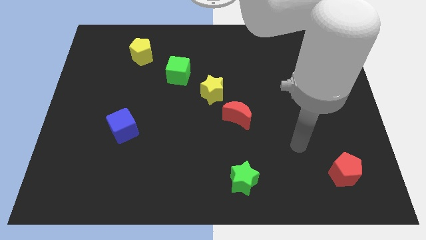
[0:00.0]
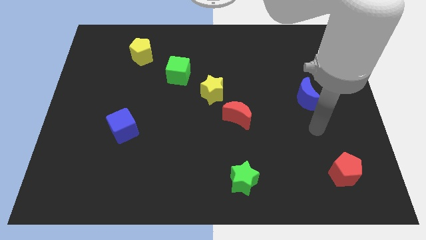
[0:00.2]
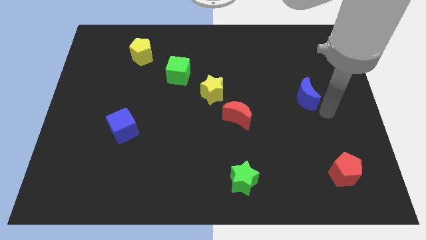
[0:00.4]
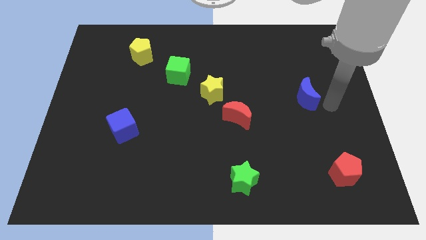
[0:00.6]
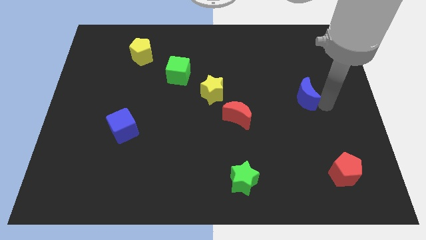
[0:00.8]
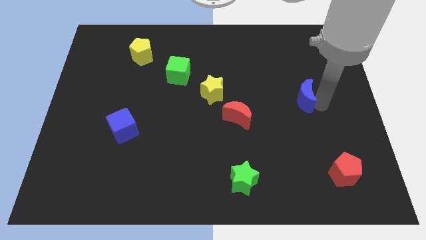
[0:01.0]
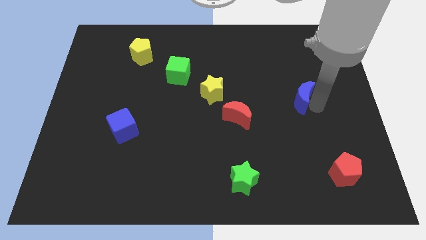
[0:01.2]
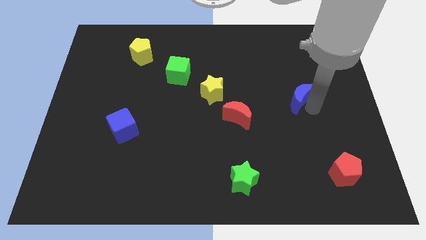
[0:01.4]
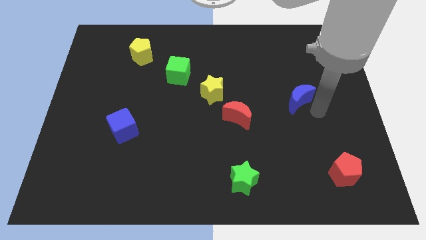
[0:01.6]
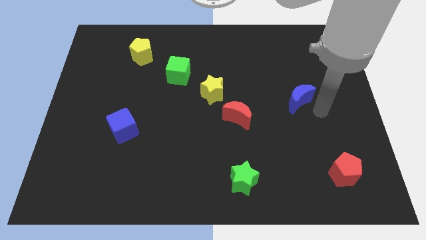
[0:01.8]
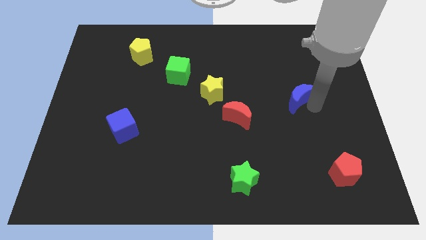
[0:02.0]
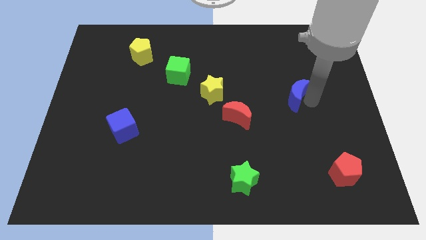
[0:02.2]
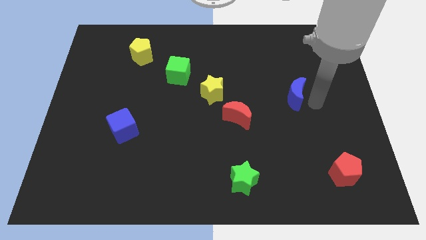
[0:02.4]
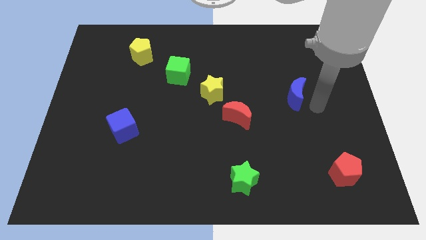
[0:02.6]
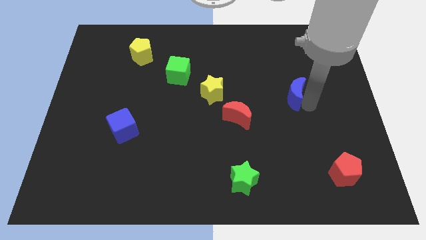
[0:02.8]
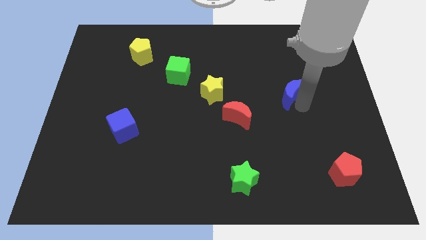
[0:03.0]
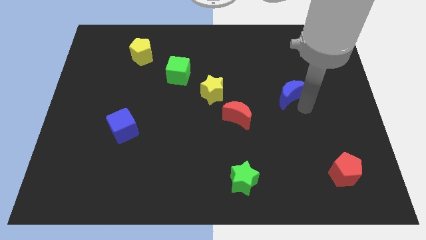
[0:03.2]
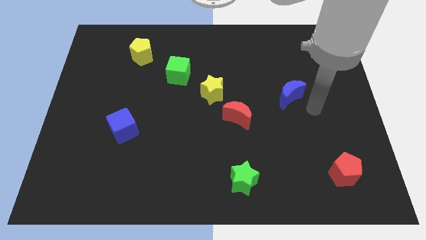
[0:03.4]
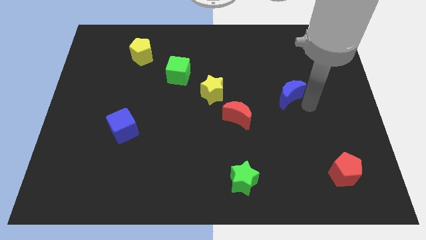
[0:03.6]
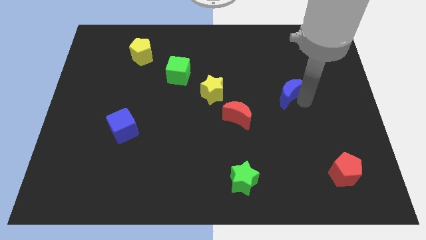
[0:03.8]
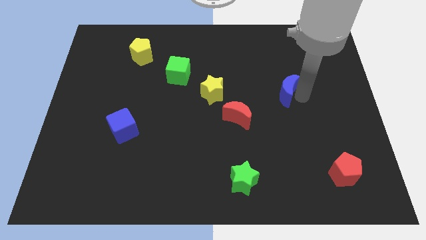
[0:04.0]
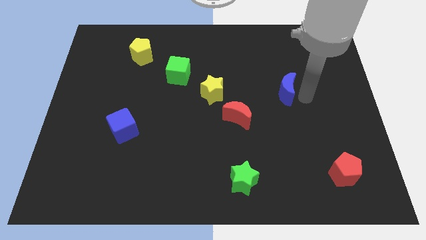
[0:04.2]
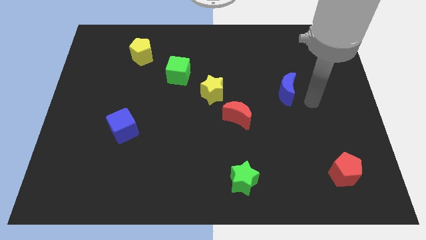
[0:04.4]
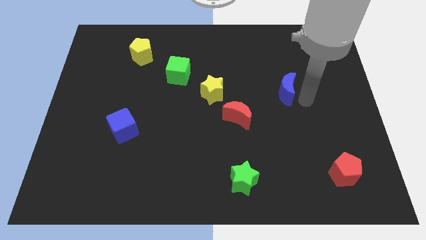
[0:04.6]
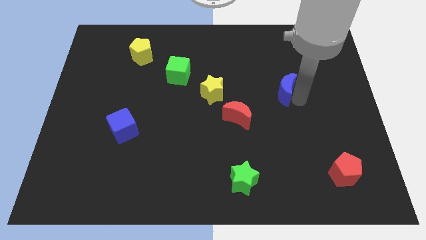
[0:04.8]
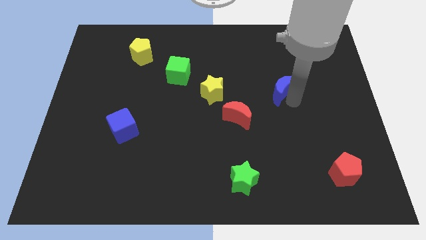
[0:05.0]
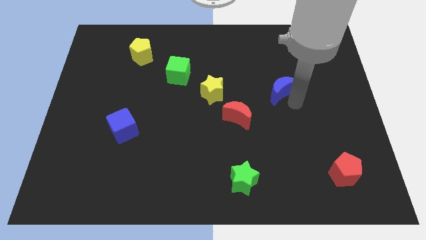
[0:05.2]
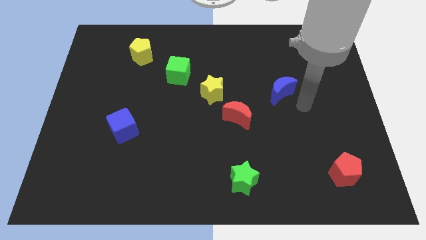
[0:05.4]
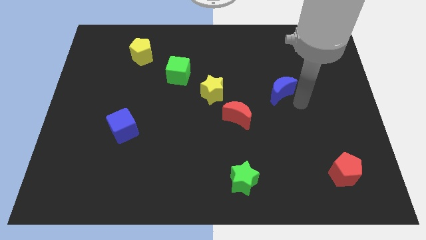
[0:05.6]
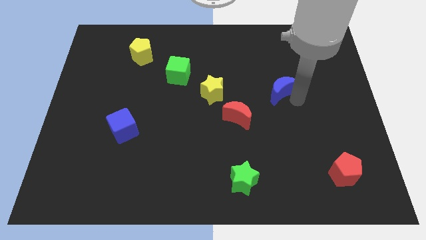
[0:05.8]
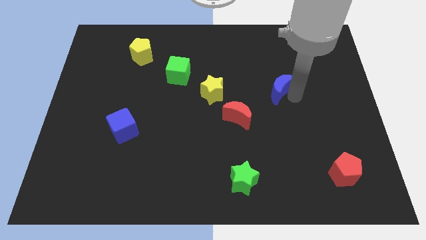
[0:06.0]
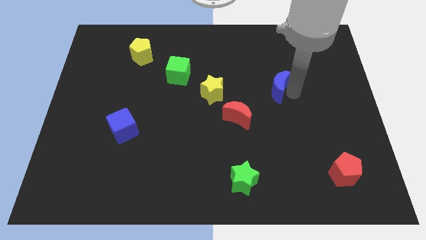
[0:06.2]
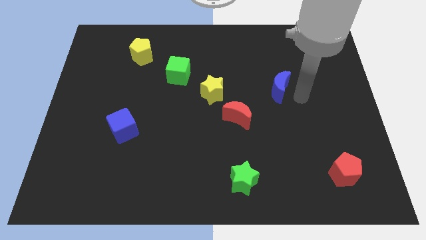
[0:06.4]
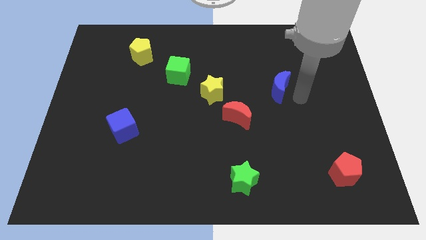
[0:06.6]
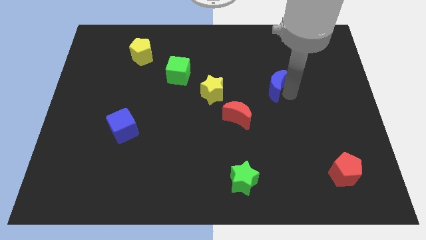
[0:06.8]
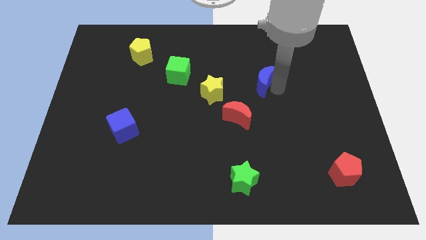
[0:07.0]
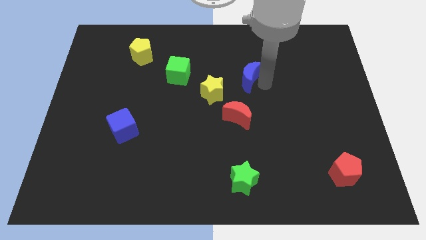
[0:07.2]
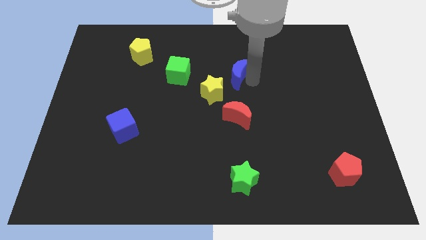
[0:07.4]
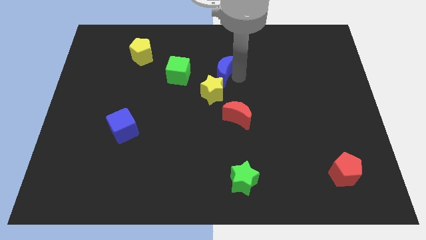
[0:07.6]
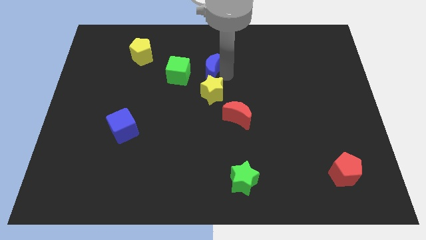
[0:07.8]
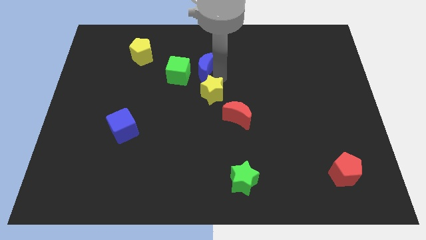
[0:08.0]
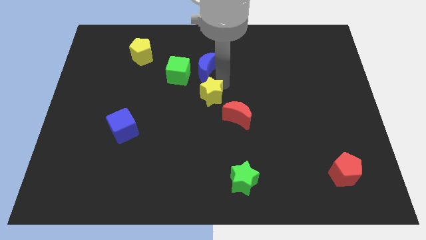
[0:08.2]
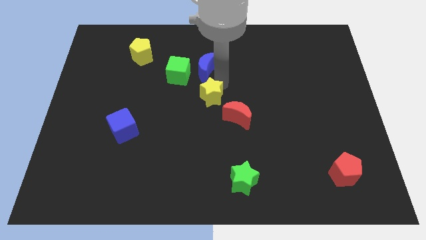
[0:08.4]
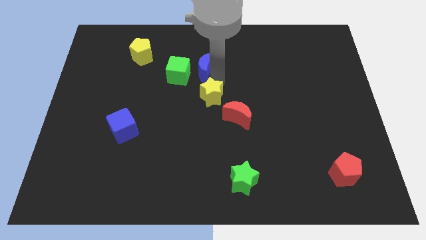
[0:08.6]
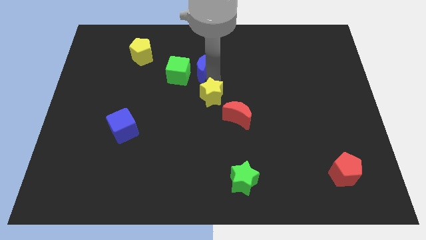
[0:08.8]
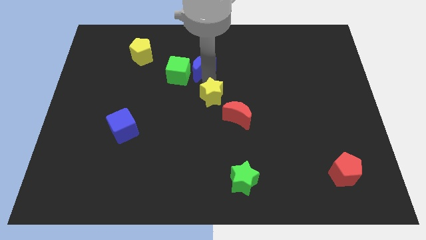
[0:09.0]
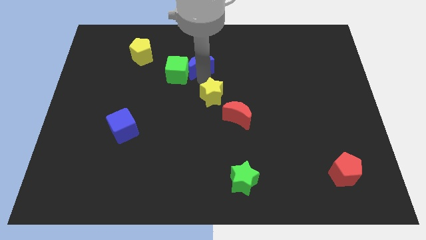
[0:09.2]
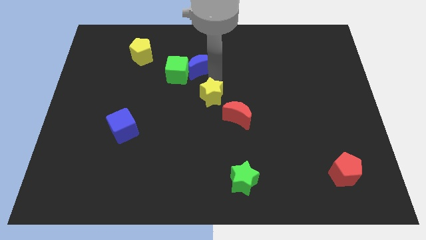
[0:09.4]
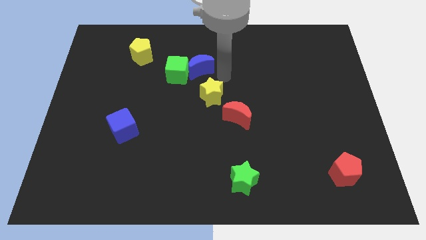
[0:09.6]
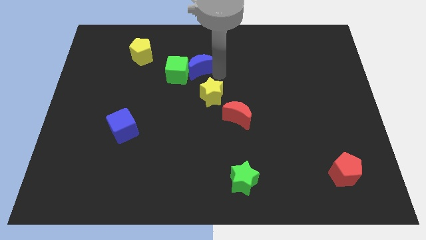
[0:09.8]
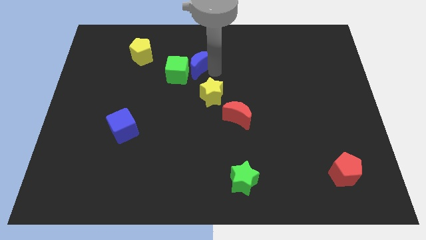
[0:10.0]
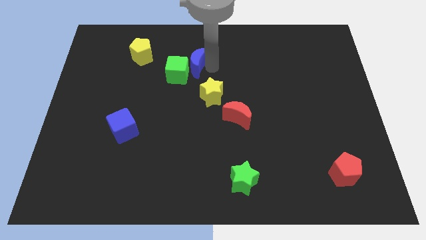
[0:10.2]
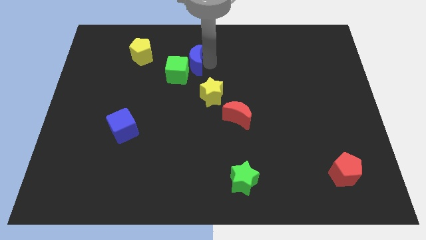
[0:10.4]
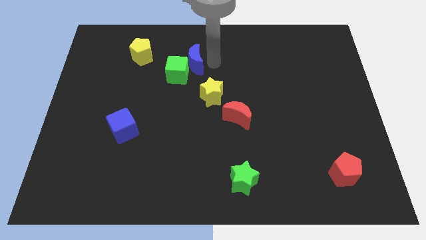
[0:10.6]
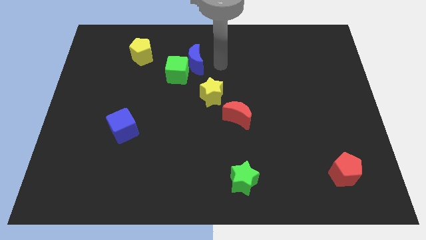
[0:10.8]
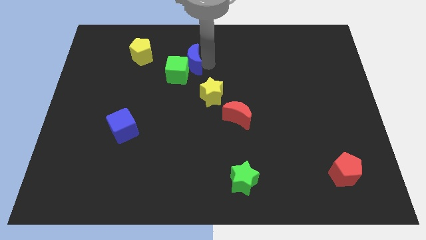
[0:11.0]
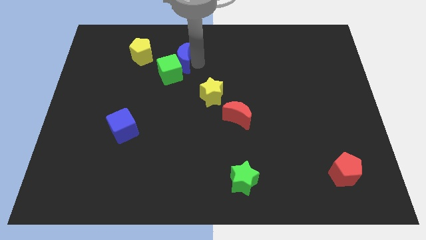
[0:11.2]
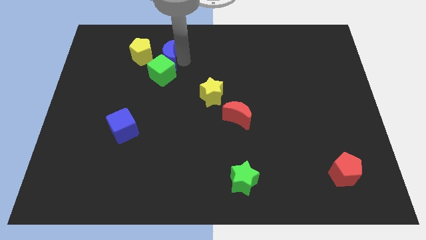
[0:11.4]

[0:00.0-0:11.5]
move the blue moon diagonally up and to the left of the green cube
